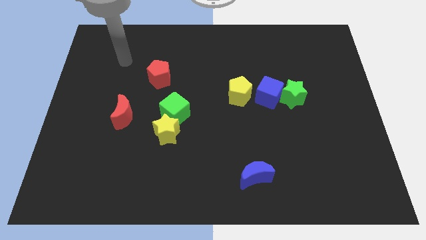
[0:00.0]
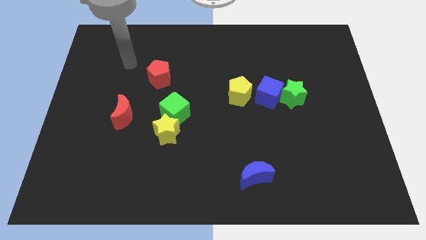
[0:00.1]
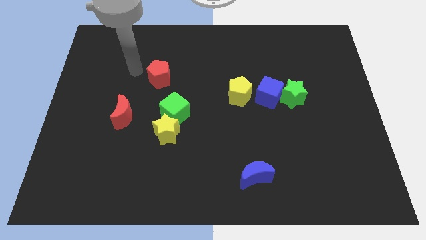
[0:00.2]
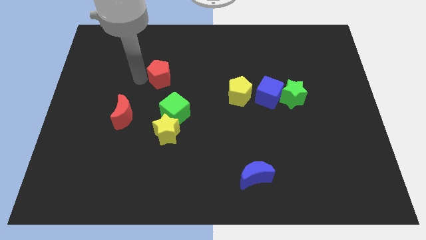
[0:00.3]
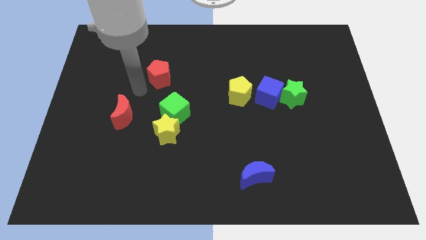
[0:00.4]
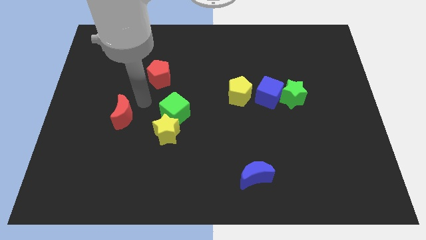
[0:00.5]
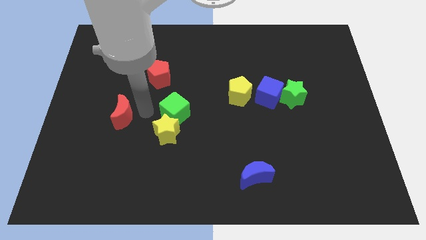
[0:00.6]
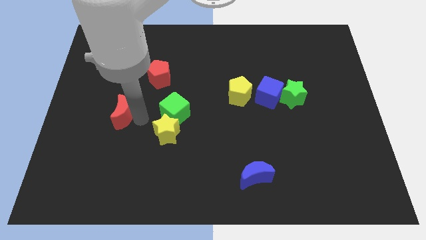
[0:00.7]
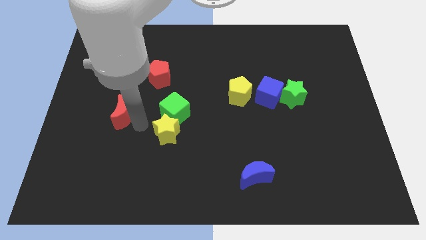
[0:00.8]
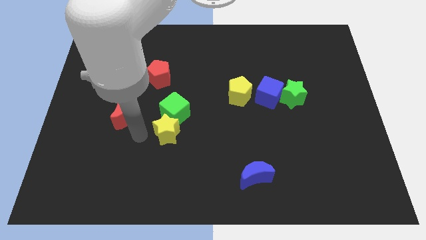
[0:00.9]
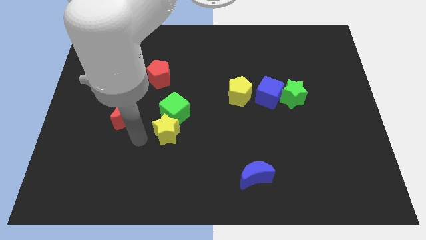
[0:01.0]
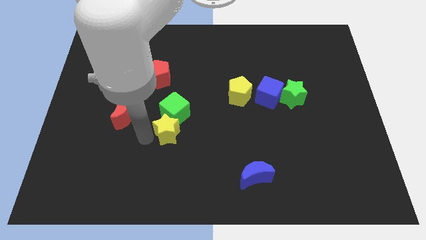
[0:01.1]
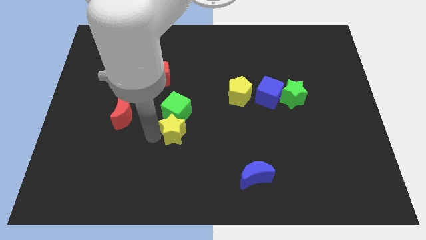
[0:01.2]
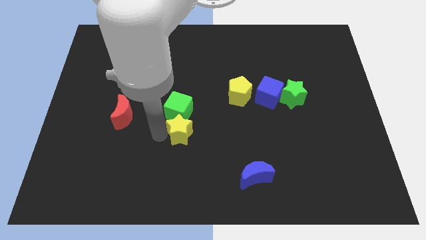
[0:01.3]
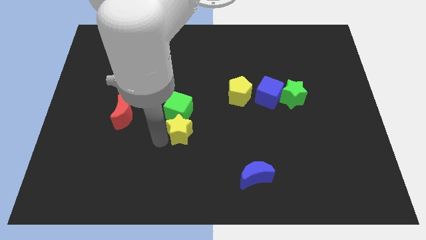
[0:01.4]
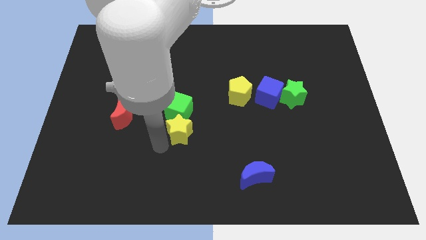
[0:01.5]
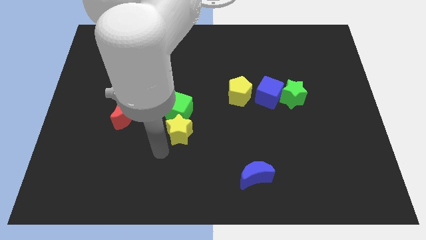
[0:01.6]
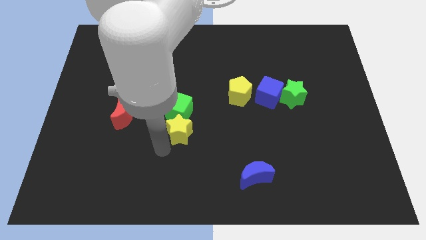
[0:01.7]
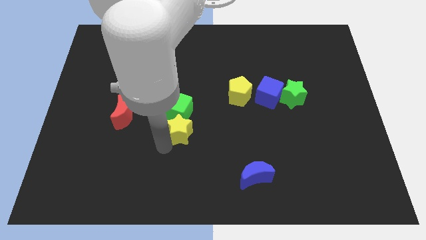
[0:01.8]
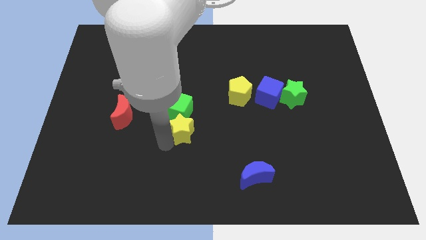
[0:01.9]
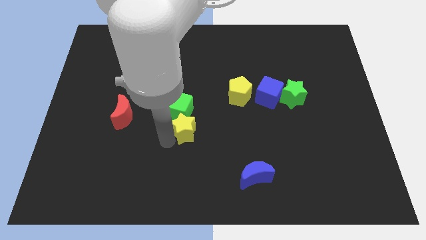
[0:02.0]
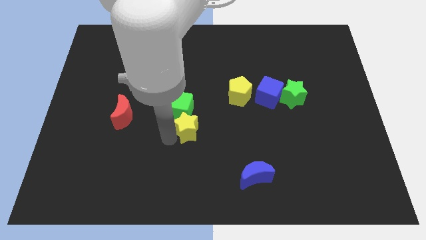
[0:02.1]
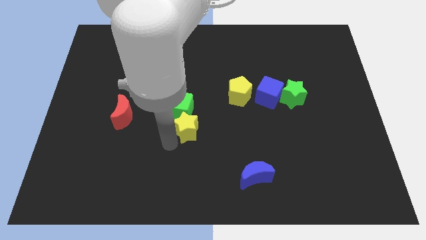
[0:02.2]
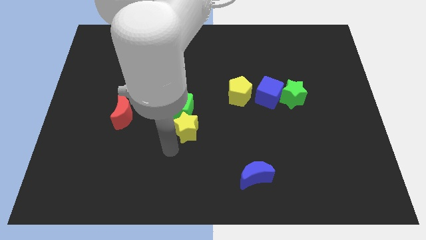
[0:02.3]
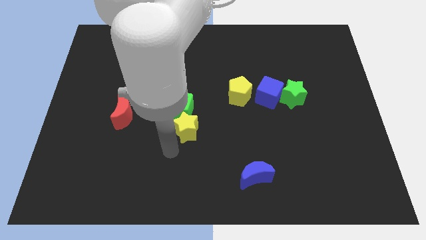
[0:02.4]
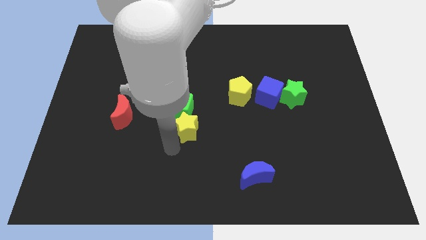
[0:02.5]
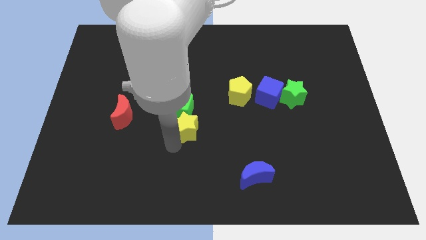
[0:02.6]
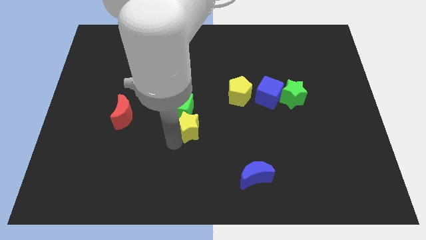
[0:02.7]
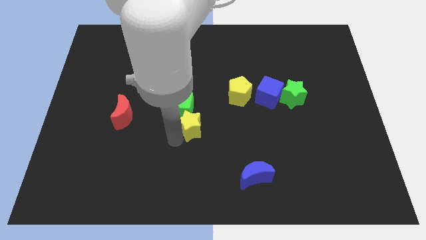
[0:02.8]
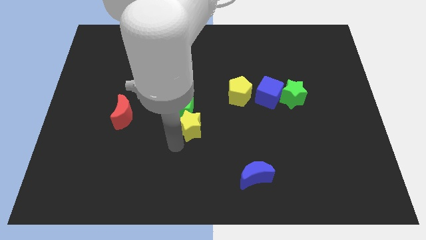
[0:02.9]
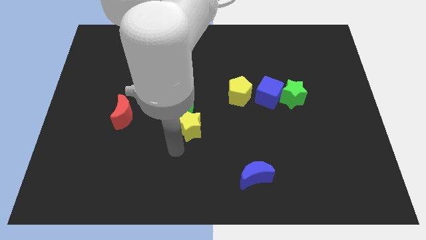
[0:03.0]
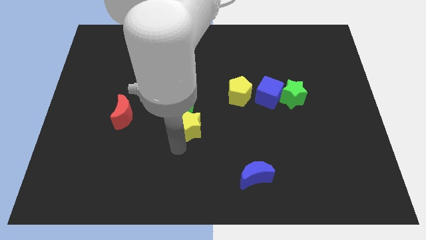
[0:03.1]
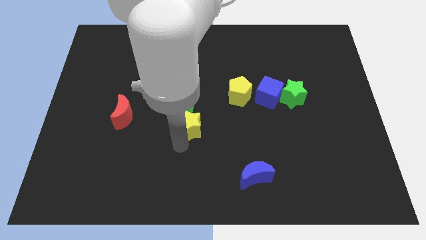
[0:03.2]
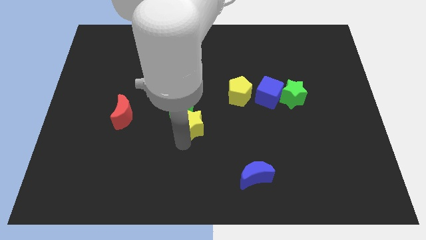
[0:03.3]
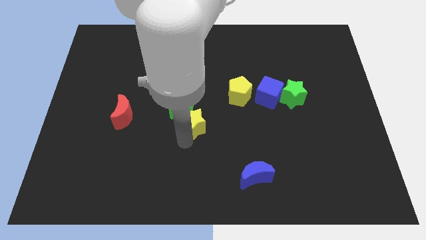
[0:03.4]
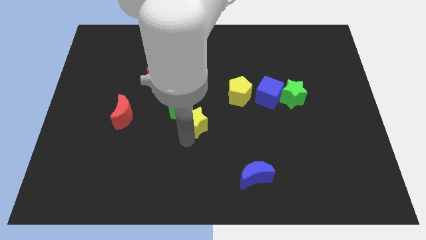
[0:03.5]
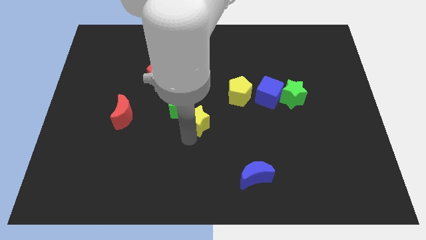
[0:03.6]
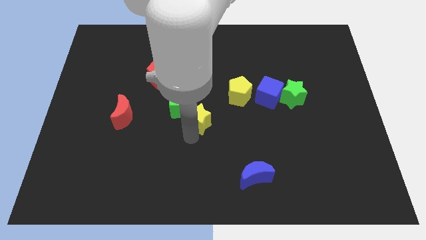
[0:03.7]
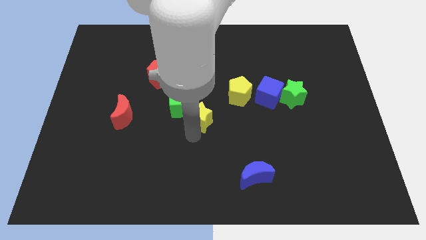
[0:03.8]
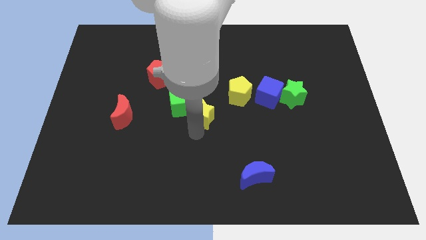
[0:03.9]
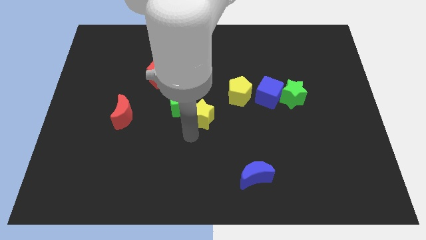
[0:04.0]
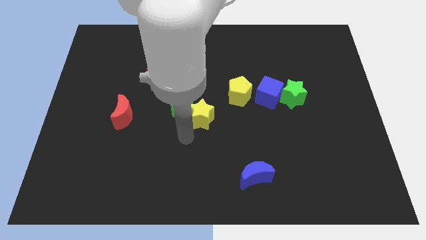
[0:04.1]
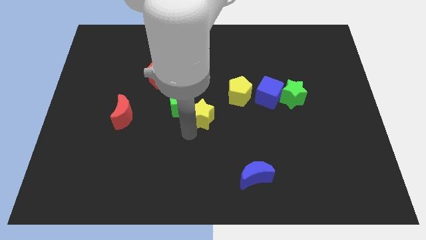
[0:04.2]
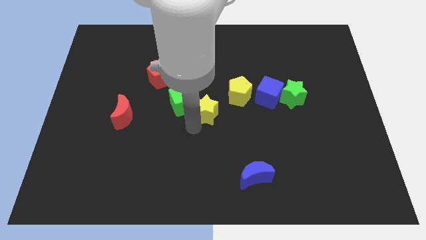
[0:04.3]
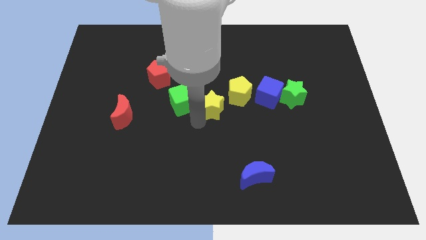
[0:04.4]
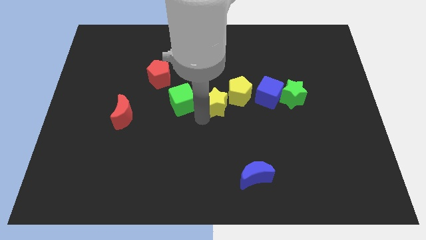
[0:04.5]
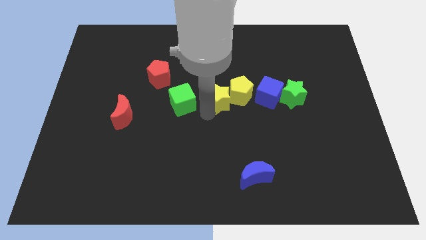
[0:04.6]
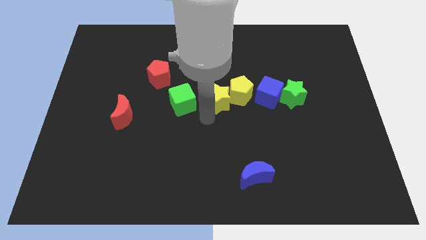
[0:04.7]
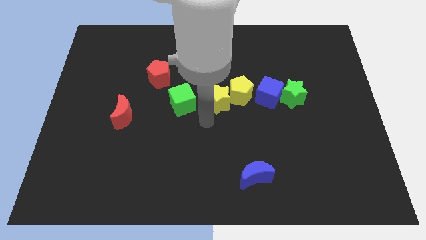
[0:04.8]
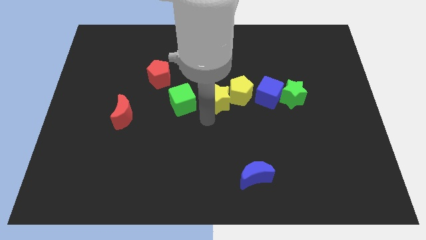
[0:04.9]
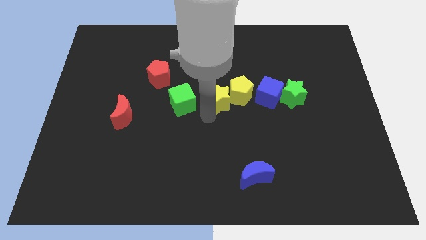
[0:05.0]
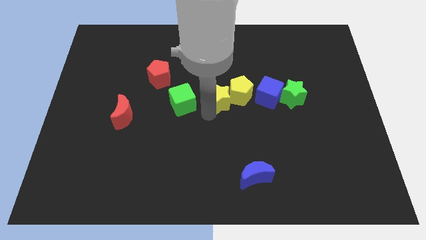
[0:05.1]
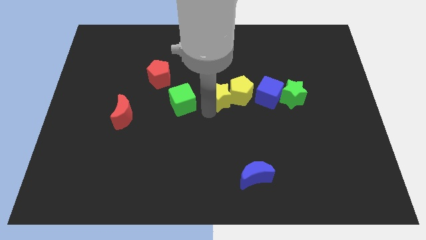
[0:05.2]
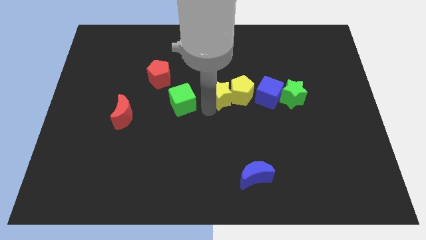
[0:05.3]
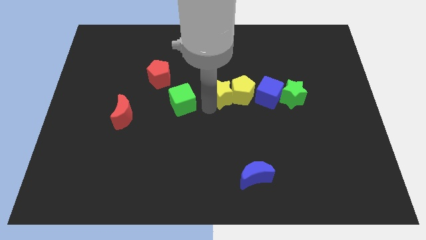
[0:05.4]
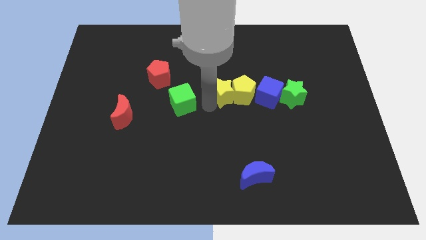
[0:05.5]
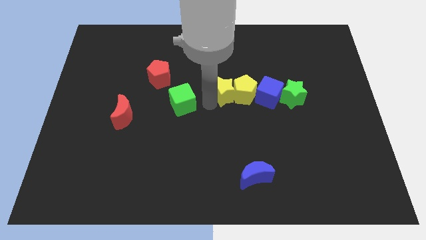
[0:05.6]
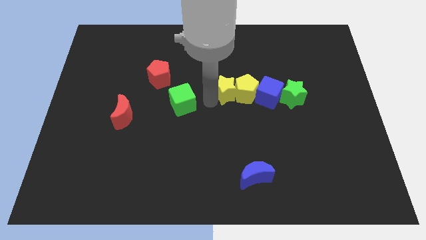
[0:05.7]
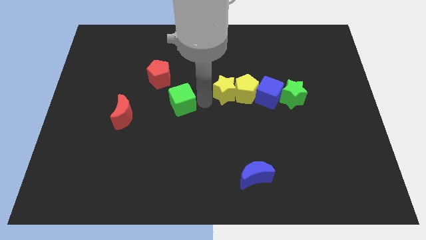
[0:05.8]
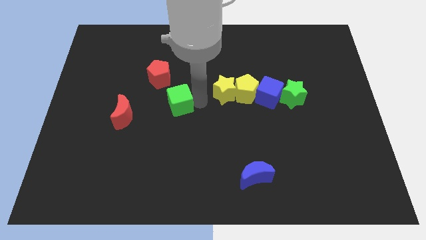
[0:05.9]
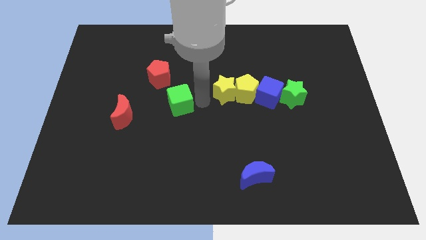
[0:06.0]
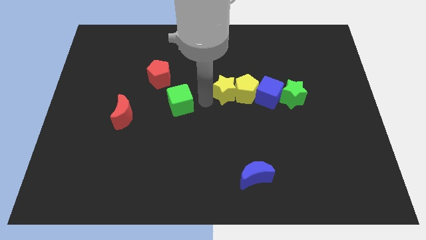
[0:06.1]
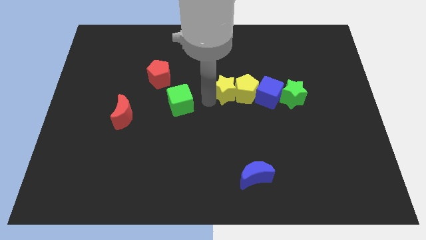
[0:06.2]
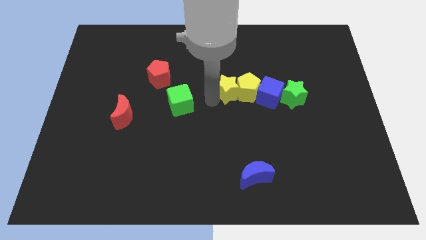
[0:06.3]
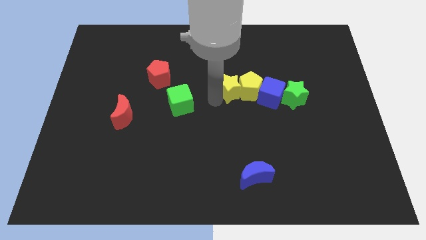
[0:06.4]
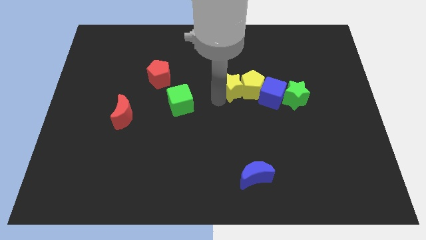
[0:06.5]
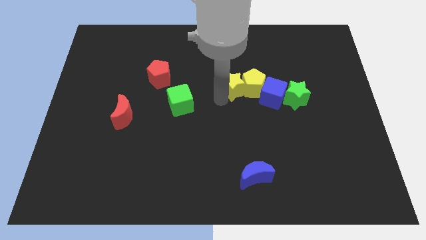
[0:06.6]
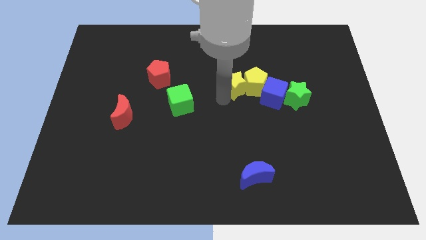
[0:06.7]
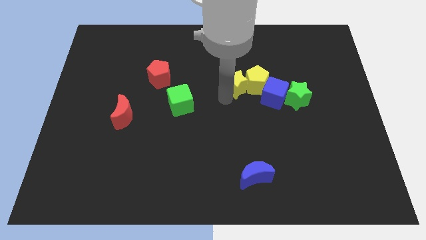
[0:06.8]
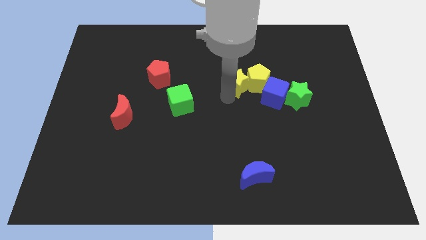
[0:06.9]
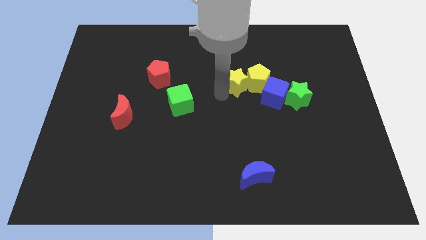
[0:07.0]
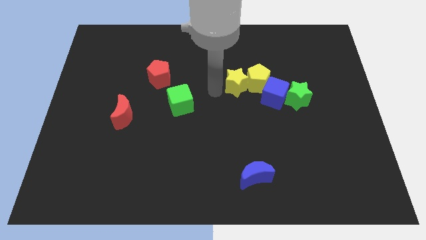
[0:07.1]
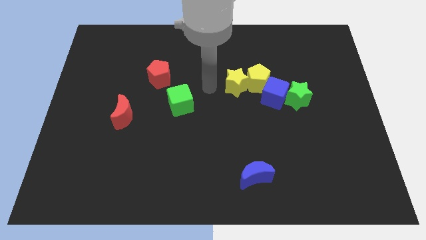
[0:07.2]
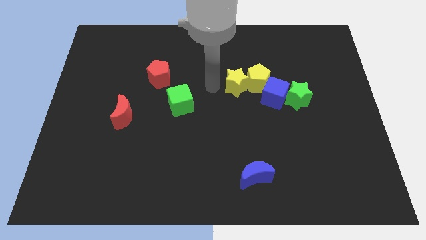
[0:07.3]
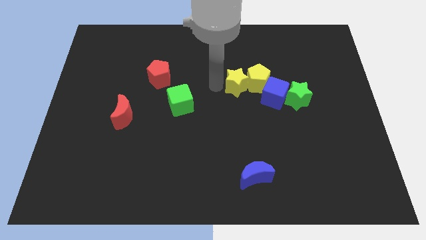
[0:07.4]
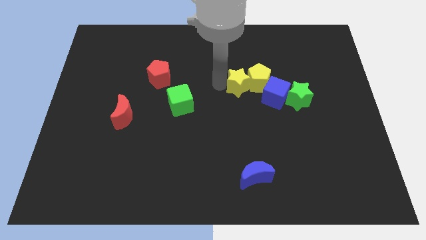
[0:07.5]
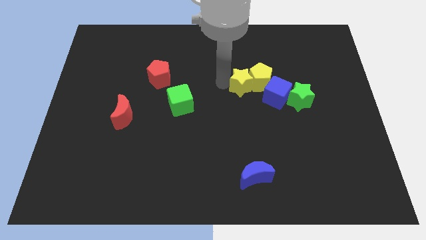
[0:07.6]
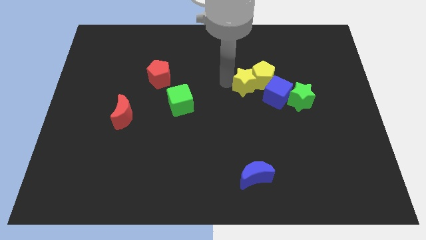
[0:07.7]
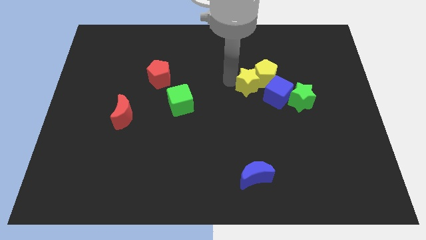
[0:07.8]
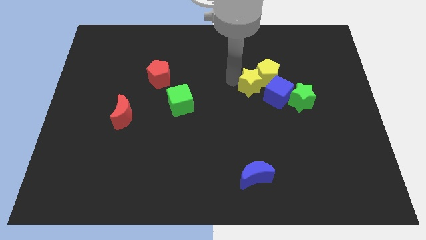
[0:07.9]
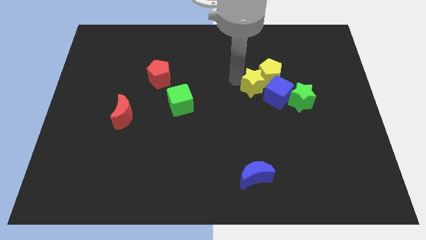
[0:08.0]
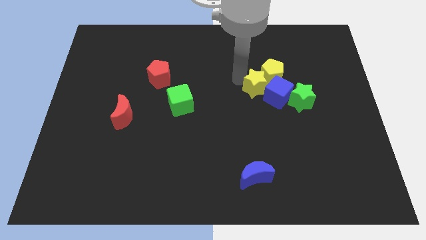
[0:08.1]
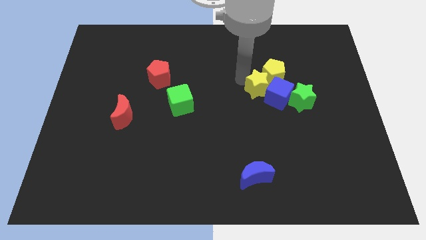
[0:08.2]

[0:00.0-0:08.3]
put the yellow star to the top left of the green star
